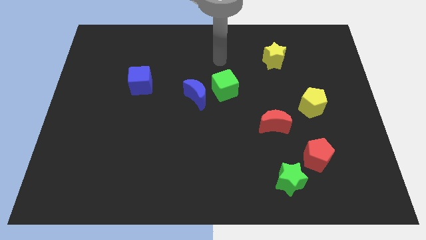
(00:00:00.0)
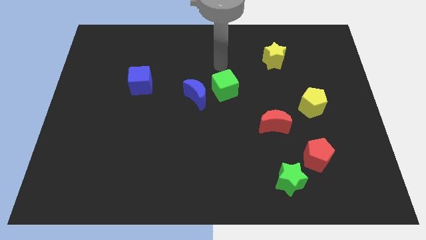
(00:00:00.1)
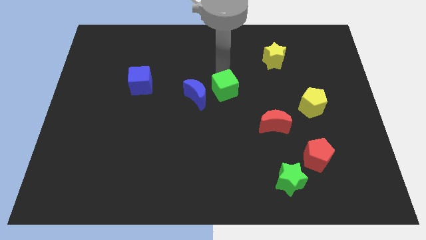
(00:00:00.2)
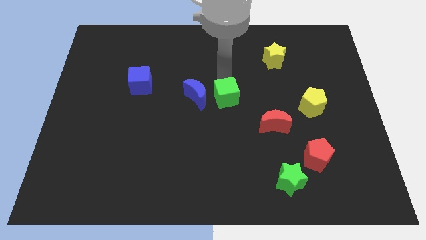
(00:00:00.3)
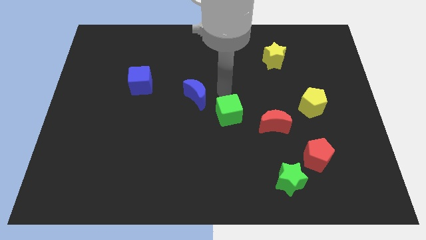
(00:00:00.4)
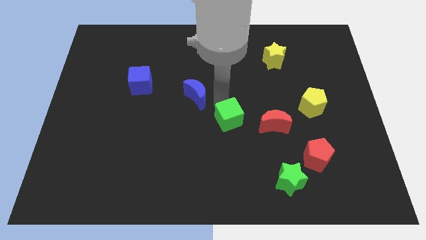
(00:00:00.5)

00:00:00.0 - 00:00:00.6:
move the blue moon away from the green cube

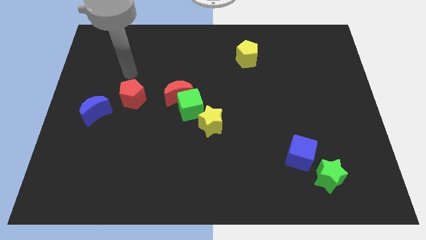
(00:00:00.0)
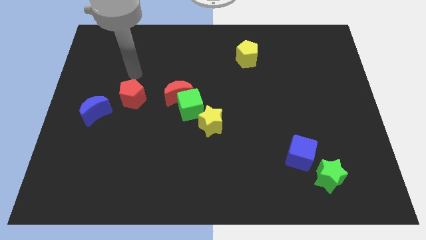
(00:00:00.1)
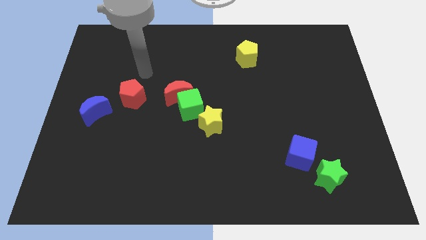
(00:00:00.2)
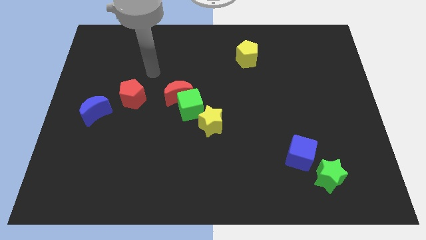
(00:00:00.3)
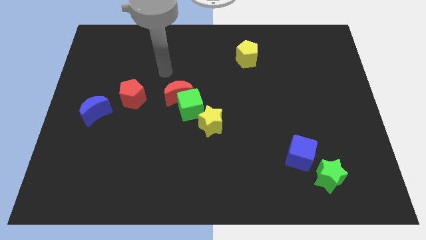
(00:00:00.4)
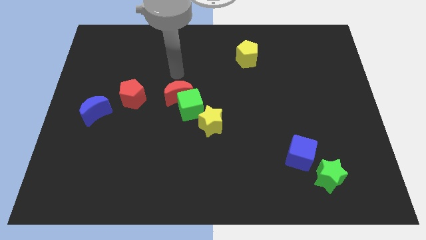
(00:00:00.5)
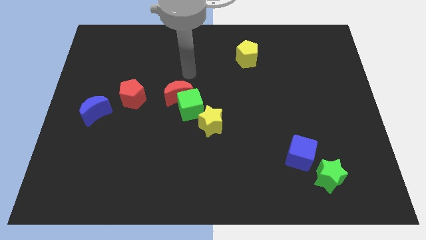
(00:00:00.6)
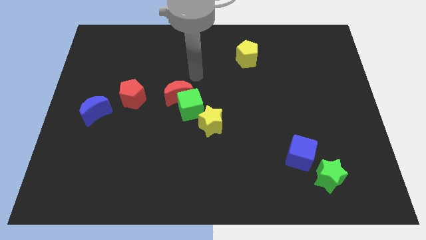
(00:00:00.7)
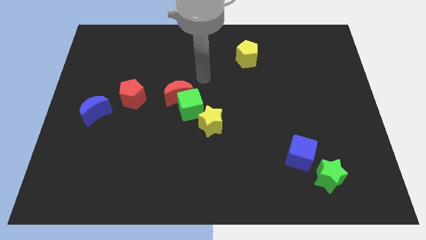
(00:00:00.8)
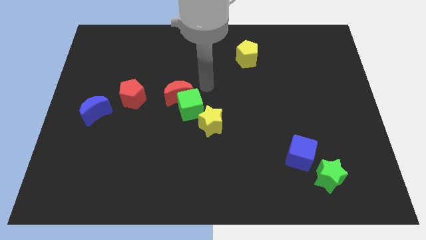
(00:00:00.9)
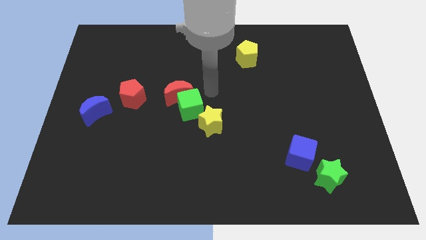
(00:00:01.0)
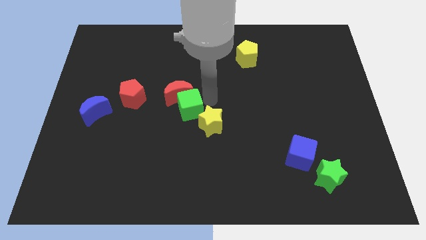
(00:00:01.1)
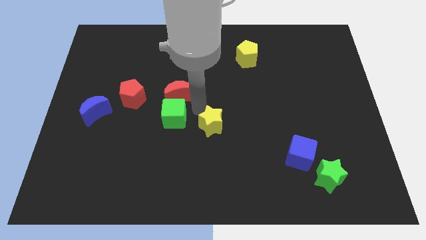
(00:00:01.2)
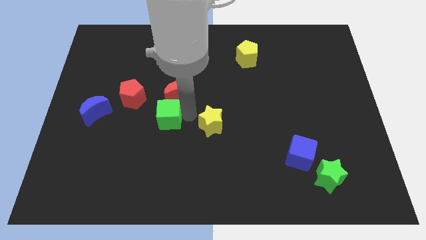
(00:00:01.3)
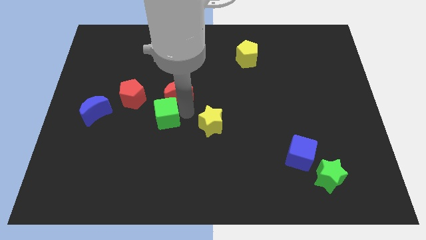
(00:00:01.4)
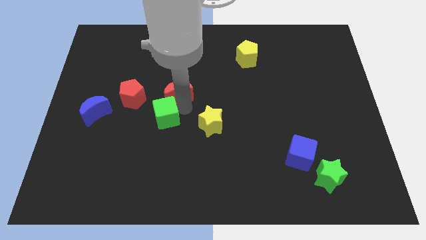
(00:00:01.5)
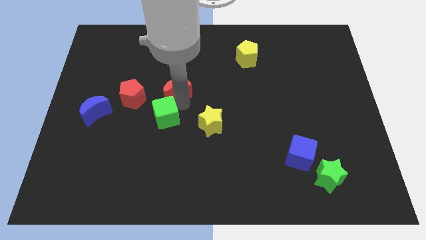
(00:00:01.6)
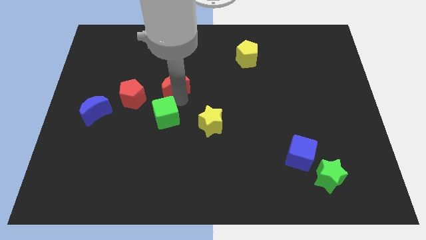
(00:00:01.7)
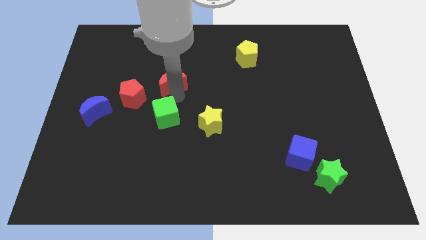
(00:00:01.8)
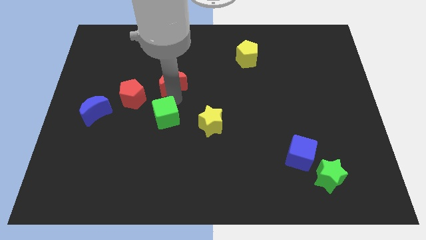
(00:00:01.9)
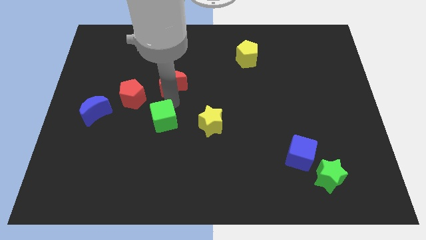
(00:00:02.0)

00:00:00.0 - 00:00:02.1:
move the red moon away from the green cube

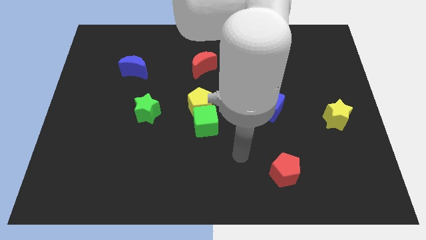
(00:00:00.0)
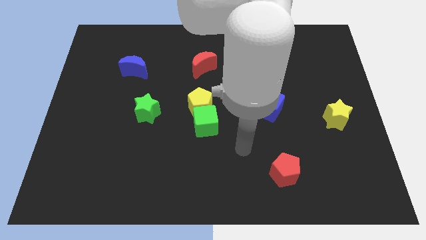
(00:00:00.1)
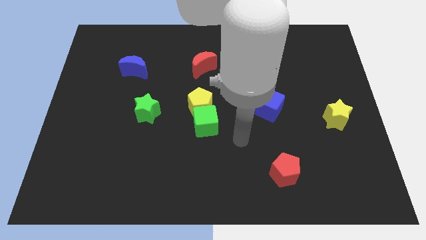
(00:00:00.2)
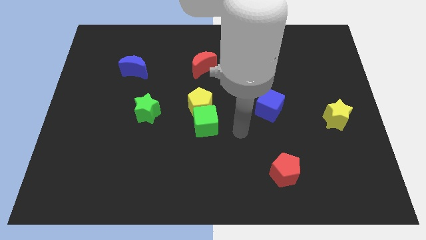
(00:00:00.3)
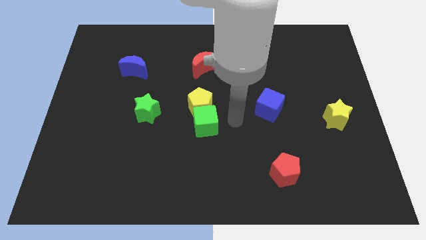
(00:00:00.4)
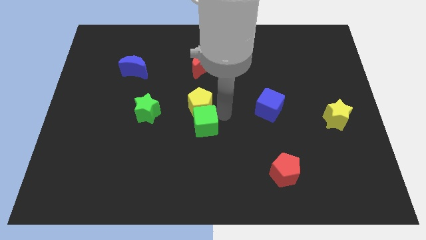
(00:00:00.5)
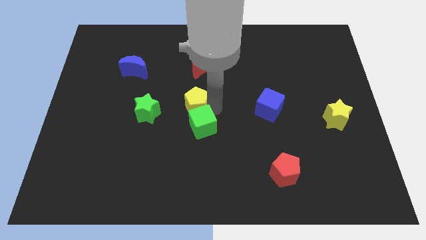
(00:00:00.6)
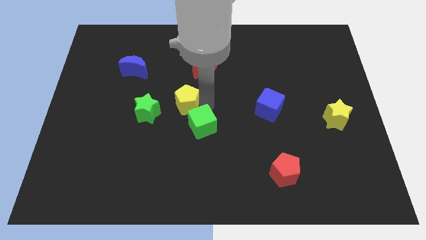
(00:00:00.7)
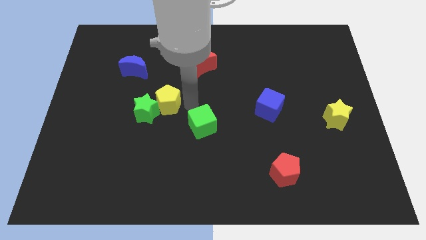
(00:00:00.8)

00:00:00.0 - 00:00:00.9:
separate the green cube from the yellow pentagon

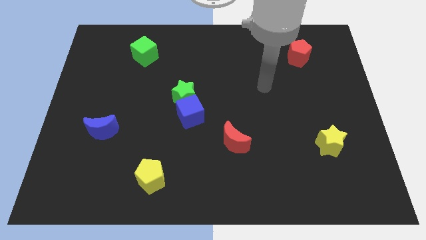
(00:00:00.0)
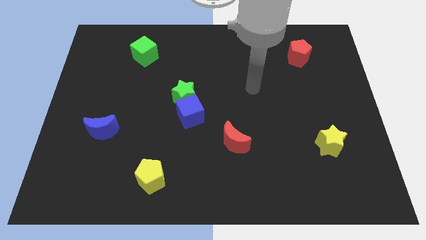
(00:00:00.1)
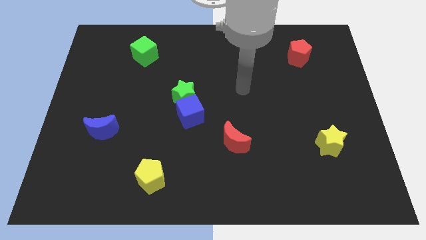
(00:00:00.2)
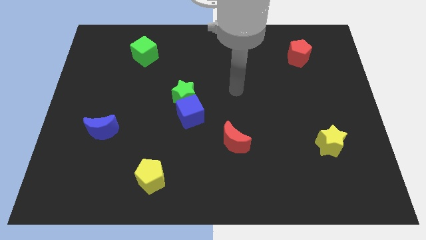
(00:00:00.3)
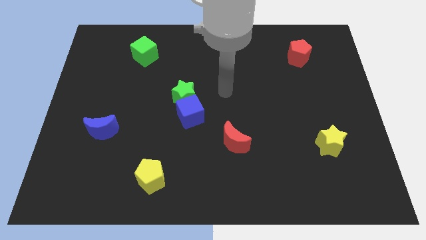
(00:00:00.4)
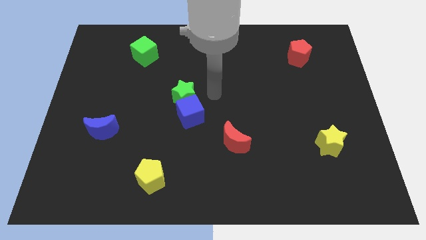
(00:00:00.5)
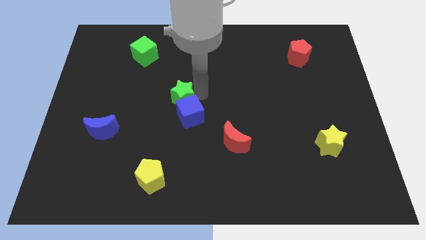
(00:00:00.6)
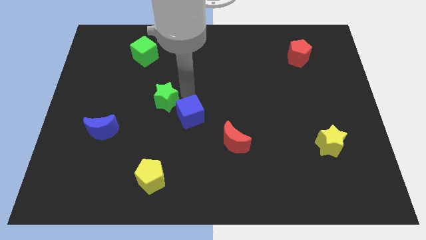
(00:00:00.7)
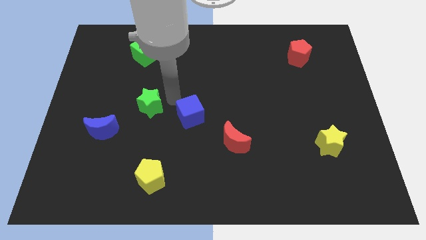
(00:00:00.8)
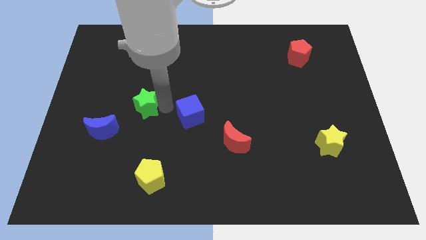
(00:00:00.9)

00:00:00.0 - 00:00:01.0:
separate the blue cube from the green star

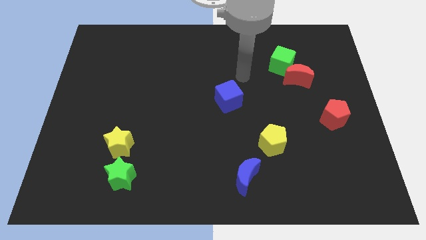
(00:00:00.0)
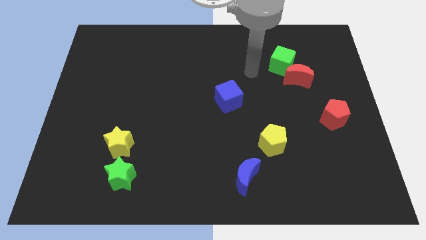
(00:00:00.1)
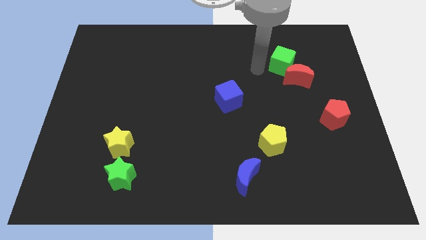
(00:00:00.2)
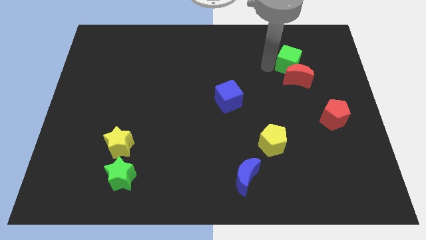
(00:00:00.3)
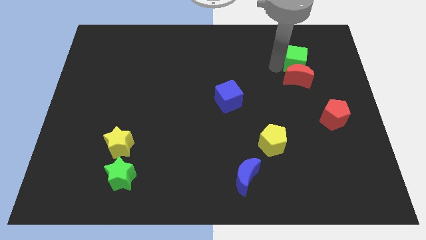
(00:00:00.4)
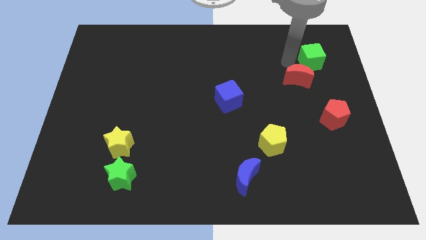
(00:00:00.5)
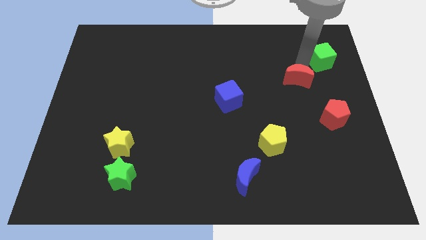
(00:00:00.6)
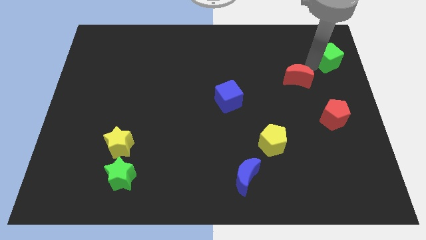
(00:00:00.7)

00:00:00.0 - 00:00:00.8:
separate the red moon from the green cube

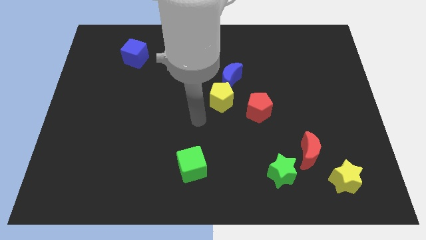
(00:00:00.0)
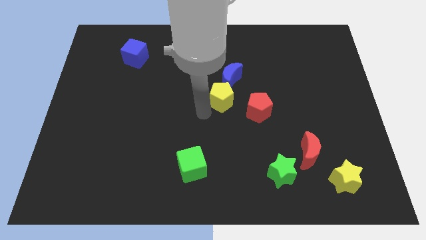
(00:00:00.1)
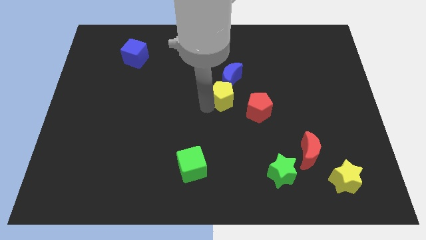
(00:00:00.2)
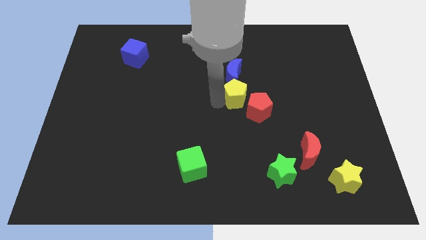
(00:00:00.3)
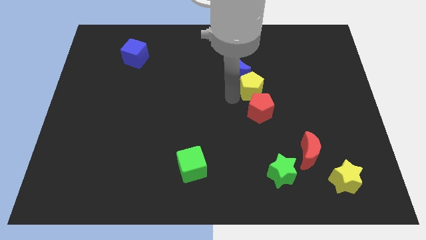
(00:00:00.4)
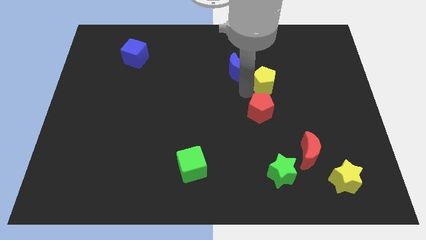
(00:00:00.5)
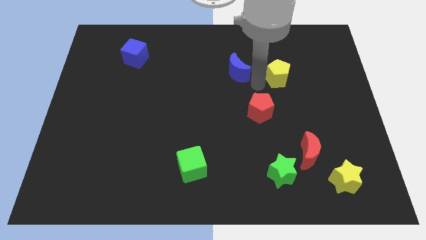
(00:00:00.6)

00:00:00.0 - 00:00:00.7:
separate the blue moon from the yellow pentagon

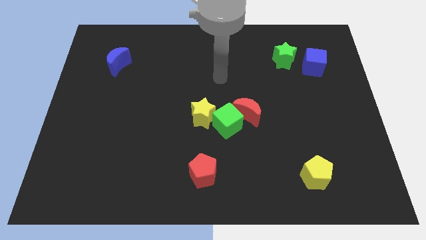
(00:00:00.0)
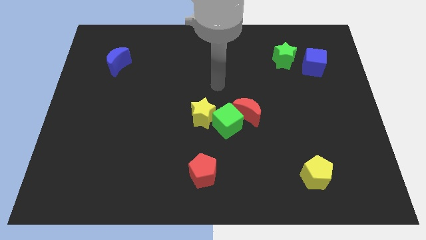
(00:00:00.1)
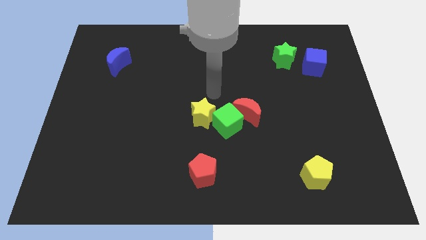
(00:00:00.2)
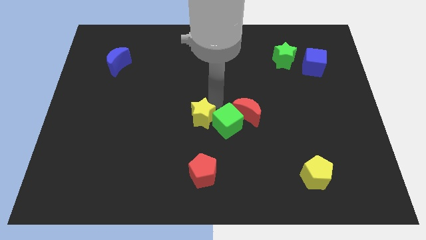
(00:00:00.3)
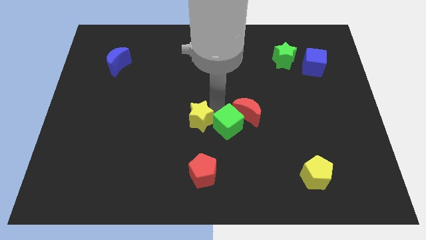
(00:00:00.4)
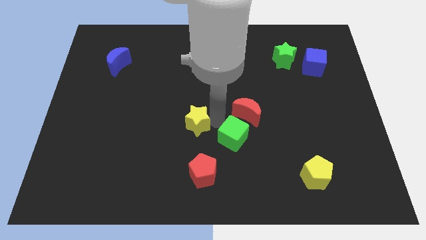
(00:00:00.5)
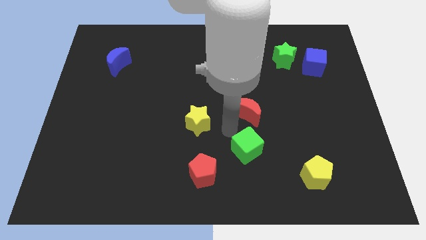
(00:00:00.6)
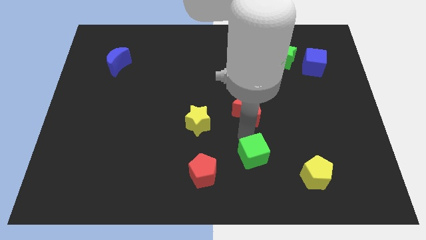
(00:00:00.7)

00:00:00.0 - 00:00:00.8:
pull the red moon apart from the green cube

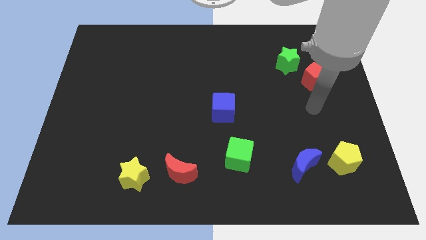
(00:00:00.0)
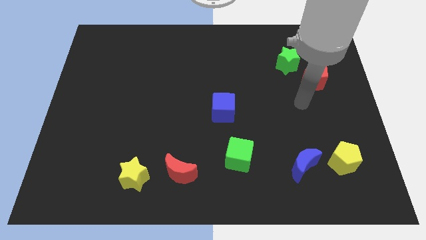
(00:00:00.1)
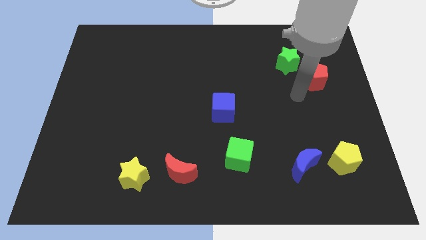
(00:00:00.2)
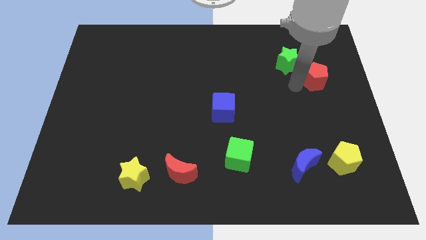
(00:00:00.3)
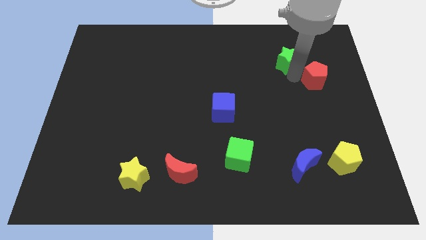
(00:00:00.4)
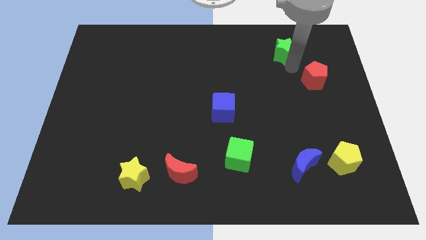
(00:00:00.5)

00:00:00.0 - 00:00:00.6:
move the red pentagon away from the green star

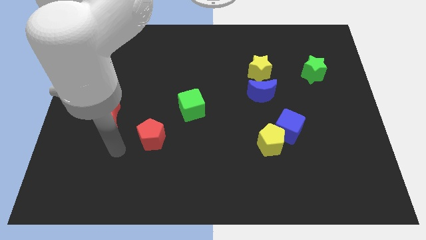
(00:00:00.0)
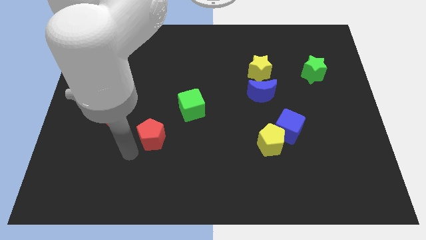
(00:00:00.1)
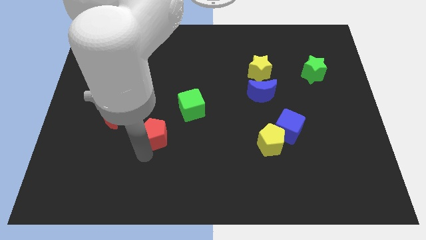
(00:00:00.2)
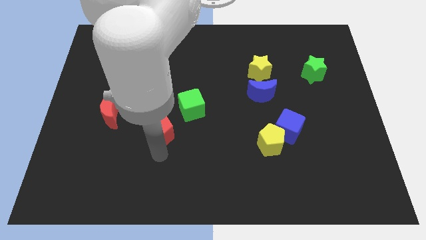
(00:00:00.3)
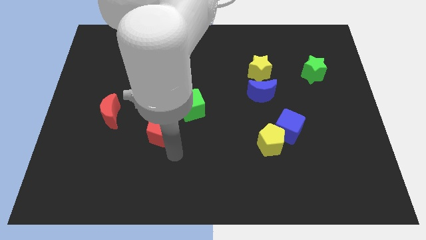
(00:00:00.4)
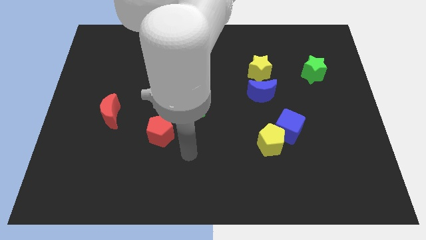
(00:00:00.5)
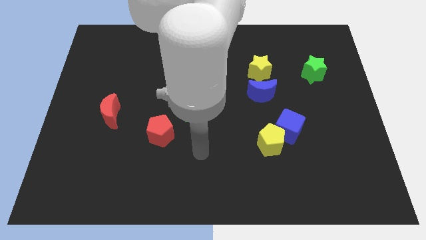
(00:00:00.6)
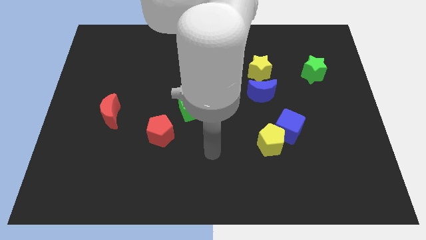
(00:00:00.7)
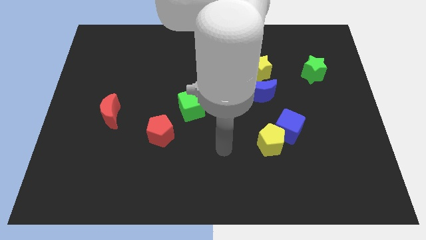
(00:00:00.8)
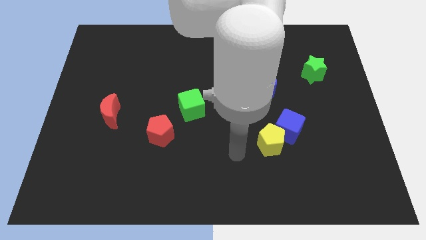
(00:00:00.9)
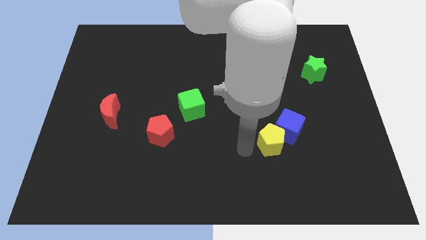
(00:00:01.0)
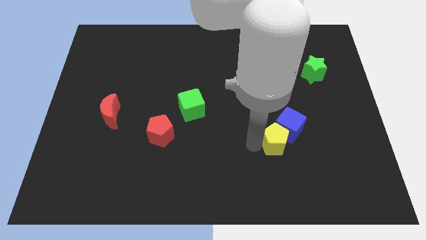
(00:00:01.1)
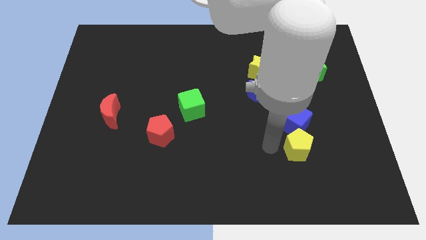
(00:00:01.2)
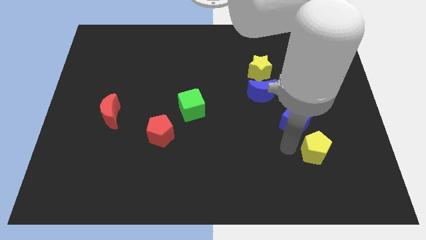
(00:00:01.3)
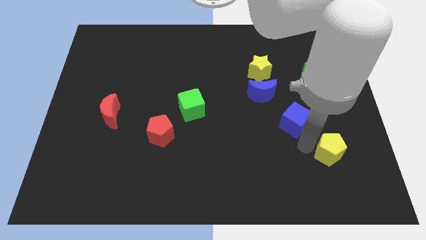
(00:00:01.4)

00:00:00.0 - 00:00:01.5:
move the blue cube away from the yellow pentagon

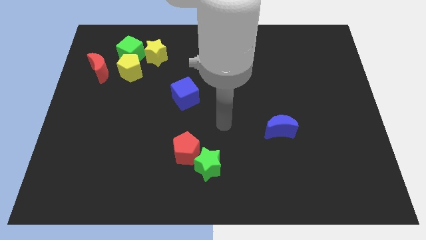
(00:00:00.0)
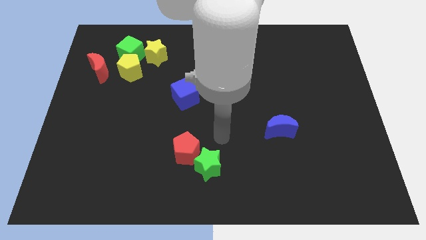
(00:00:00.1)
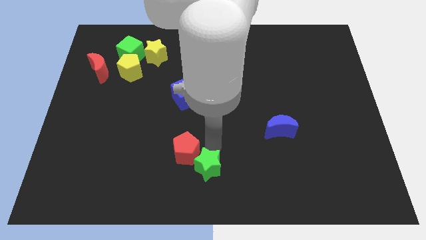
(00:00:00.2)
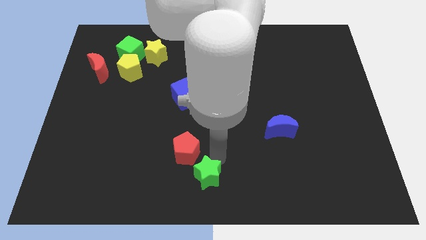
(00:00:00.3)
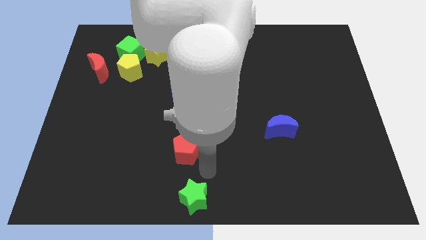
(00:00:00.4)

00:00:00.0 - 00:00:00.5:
pull the red pentagon apart from the green star
